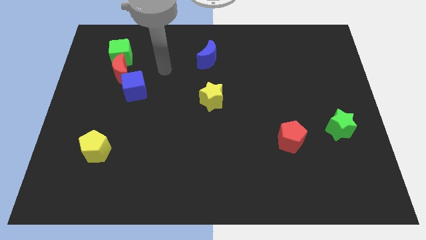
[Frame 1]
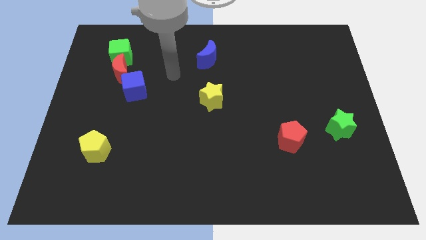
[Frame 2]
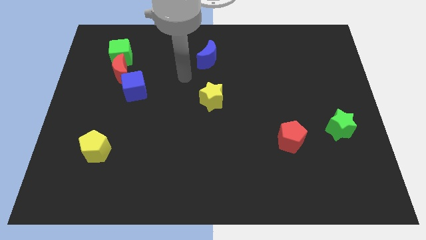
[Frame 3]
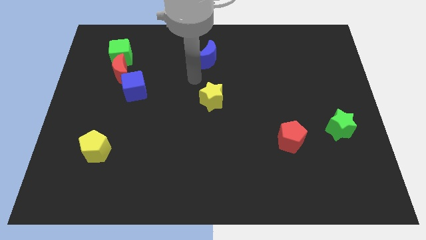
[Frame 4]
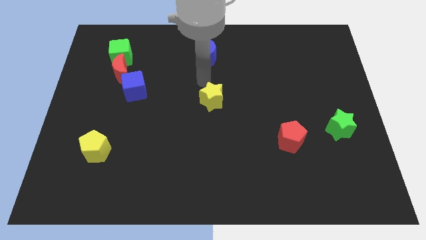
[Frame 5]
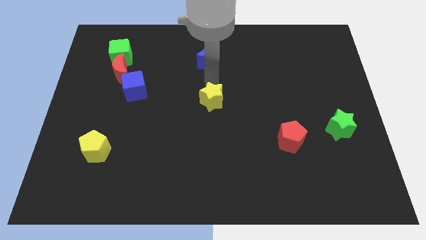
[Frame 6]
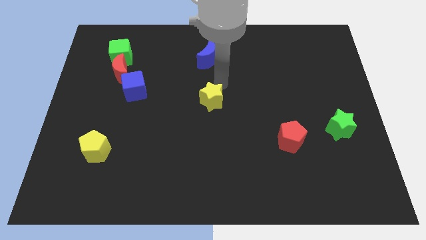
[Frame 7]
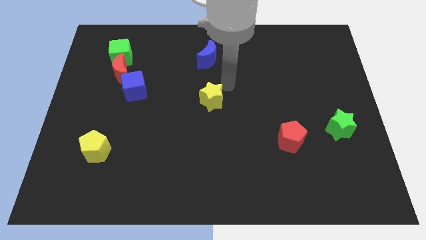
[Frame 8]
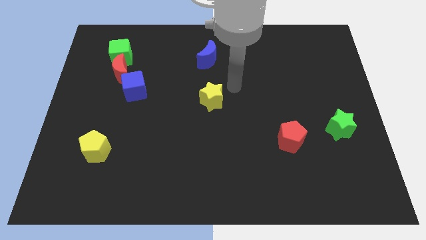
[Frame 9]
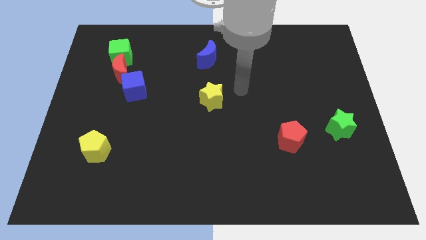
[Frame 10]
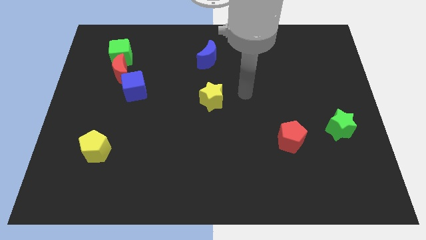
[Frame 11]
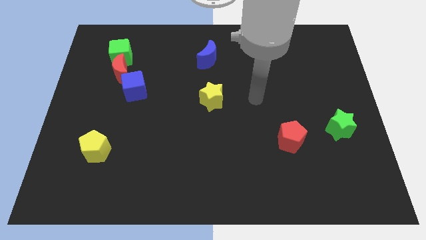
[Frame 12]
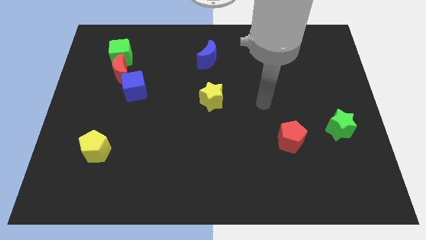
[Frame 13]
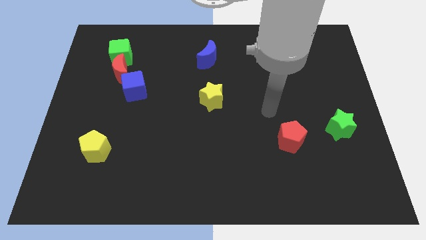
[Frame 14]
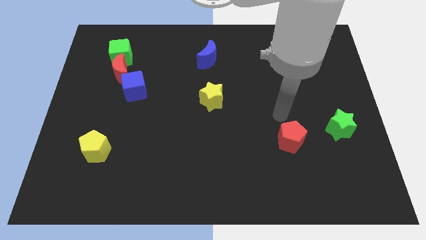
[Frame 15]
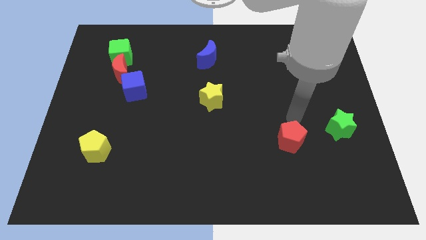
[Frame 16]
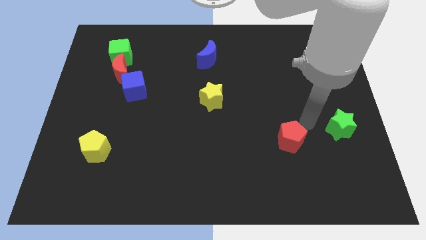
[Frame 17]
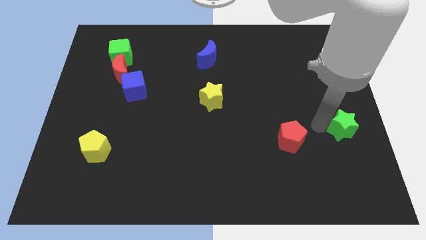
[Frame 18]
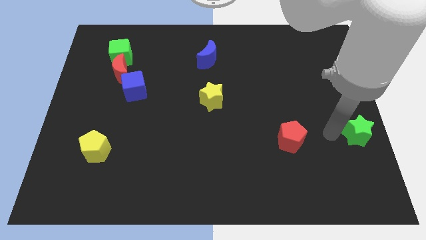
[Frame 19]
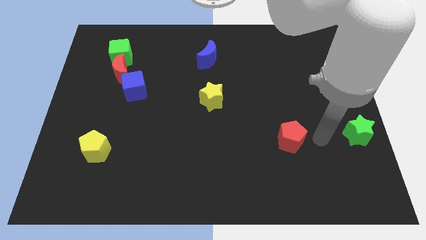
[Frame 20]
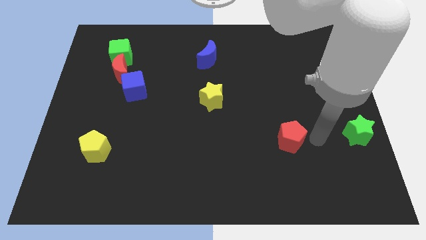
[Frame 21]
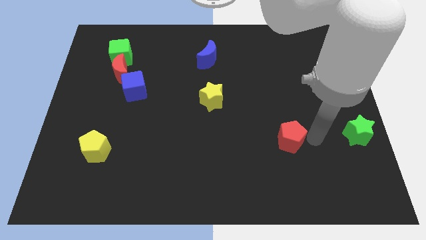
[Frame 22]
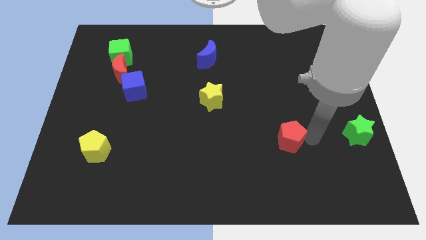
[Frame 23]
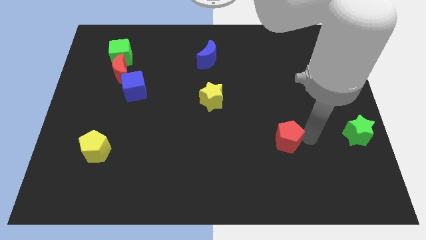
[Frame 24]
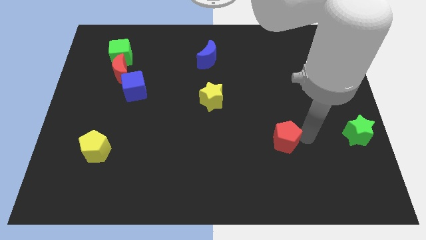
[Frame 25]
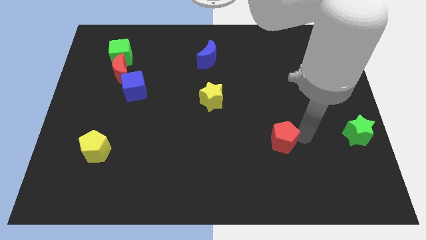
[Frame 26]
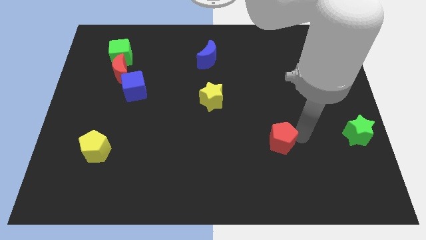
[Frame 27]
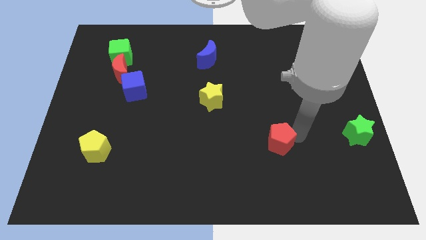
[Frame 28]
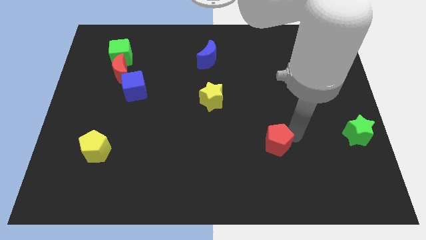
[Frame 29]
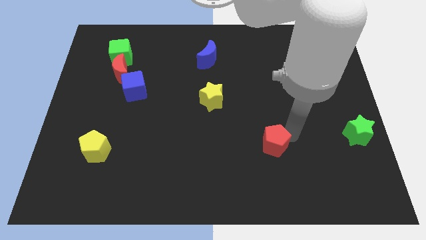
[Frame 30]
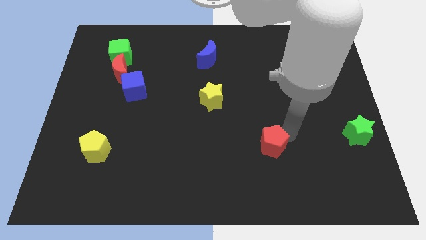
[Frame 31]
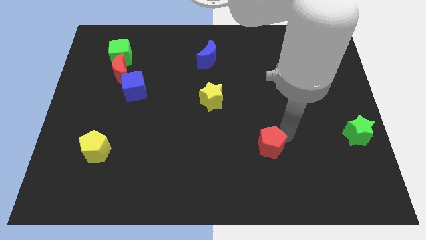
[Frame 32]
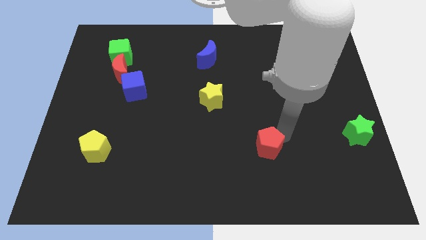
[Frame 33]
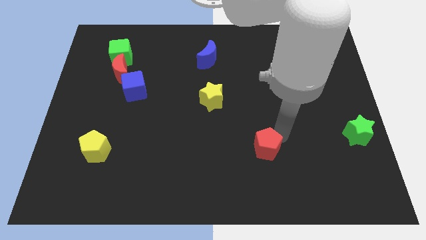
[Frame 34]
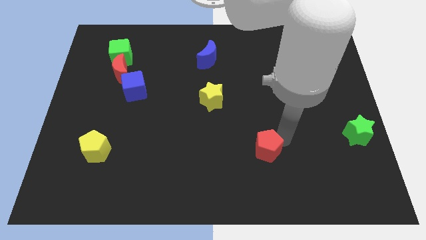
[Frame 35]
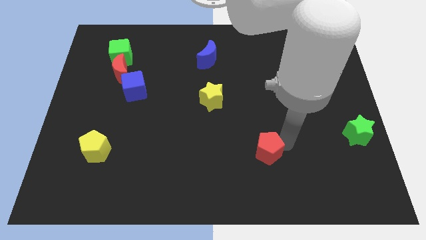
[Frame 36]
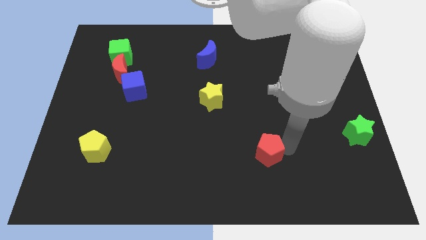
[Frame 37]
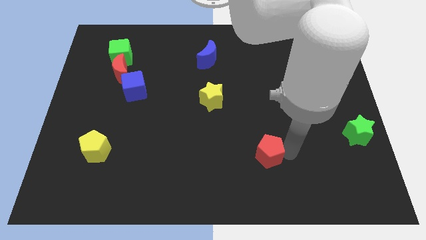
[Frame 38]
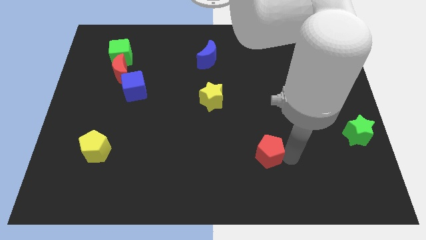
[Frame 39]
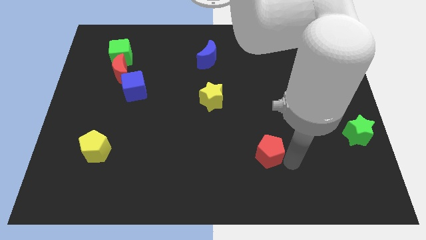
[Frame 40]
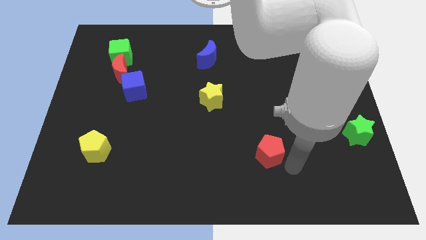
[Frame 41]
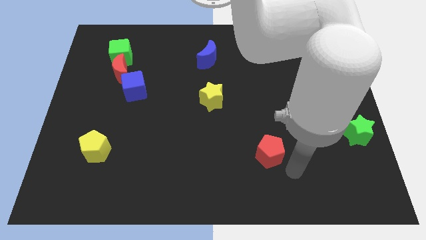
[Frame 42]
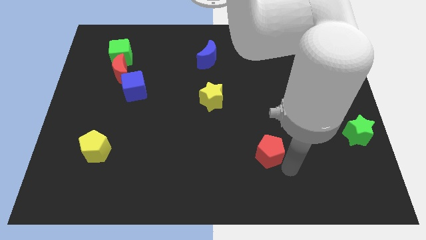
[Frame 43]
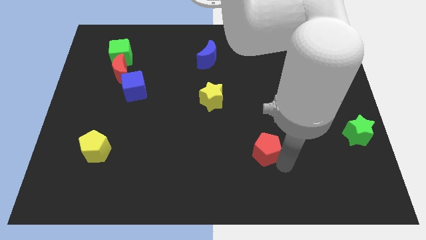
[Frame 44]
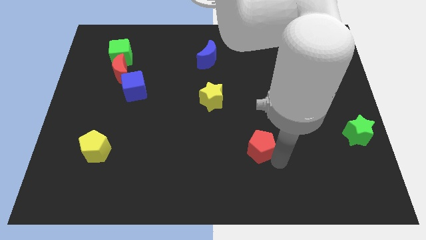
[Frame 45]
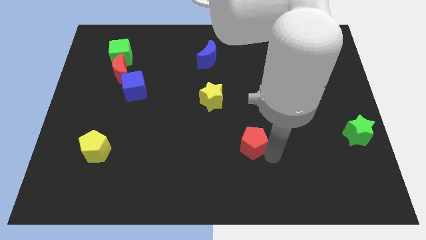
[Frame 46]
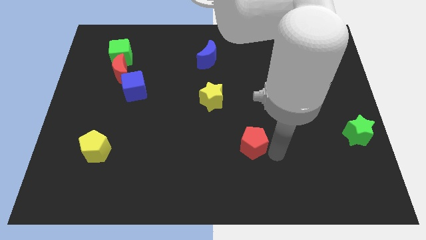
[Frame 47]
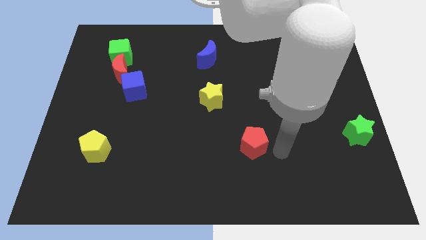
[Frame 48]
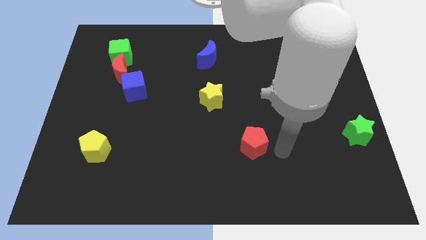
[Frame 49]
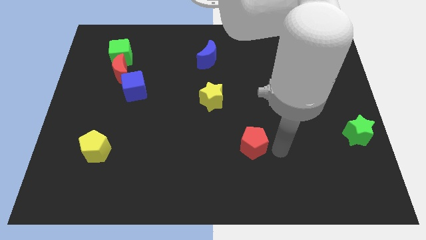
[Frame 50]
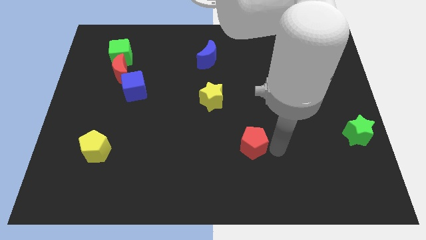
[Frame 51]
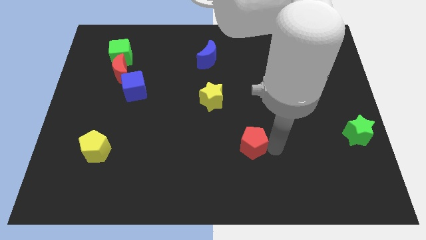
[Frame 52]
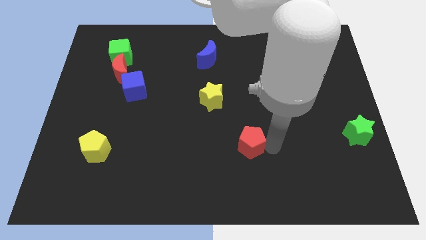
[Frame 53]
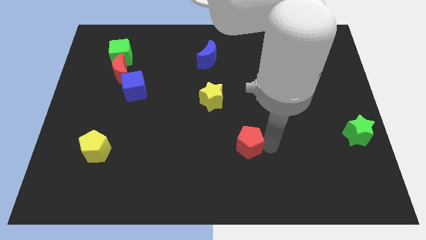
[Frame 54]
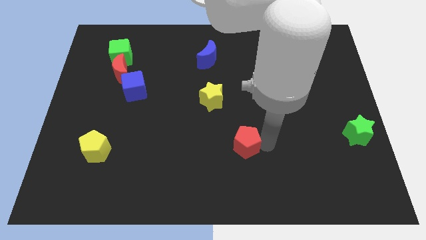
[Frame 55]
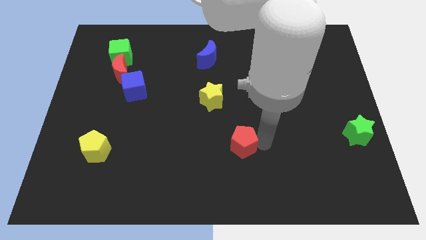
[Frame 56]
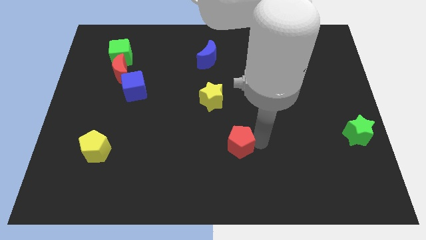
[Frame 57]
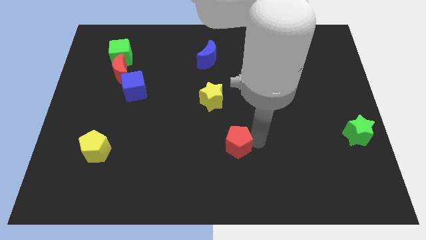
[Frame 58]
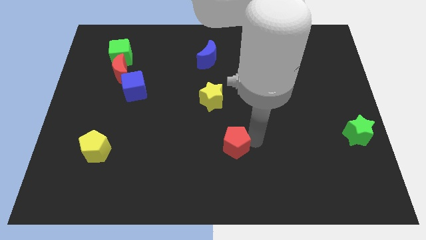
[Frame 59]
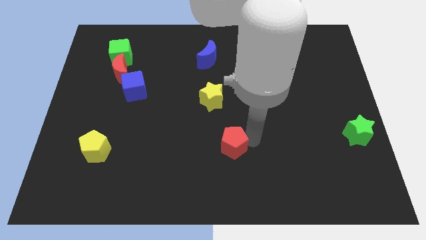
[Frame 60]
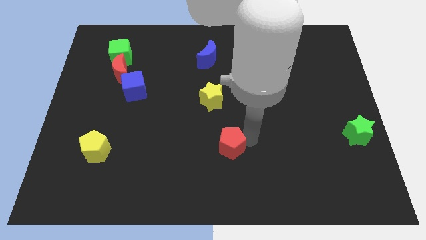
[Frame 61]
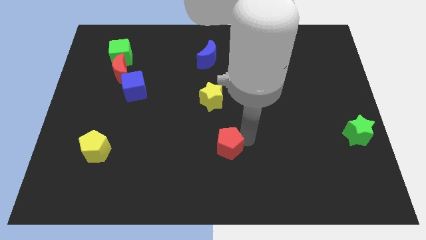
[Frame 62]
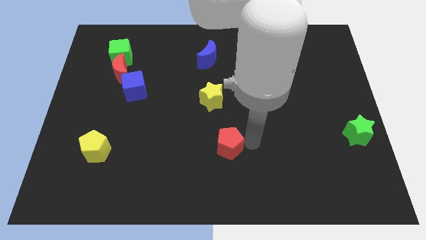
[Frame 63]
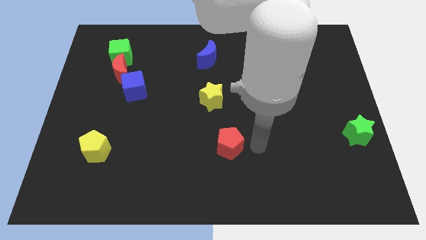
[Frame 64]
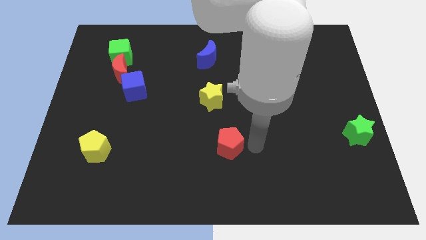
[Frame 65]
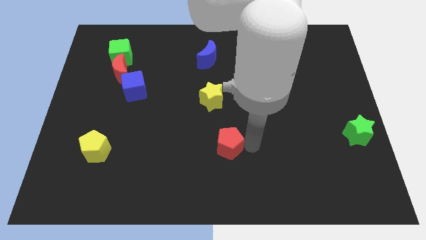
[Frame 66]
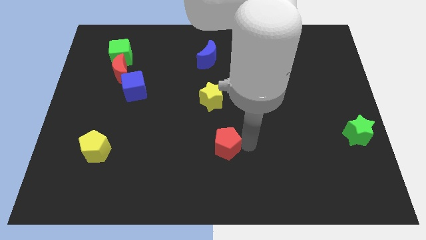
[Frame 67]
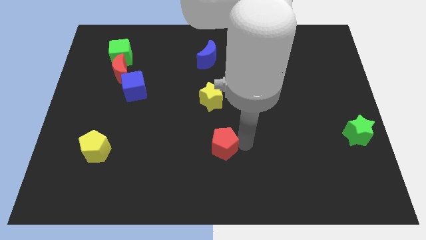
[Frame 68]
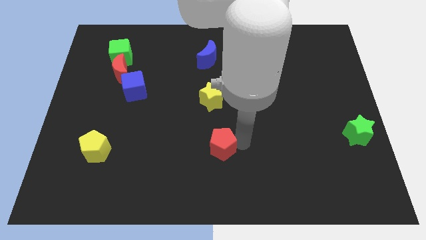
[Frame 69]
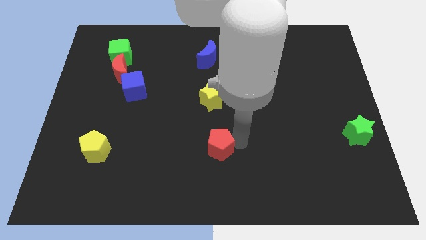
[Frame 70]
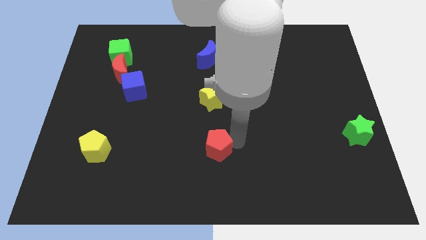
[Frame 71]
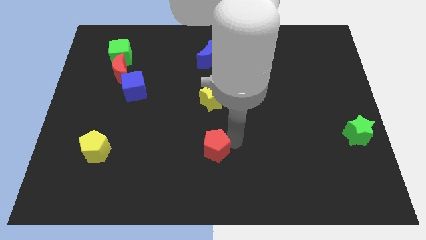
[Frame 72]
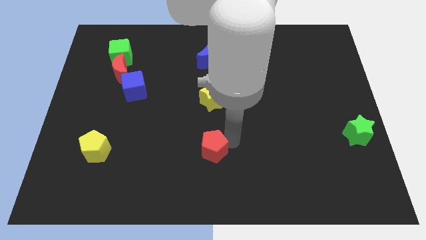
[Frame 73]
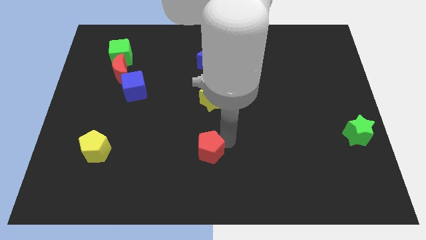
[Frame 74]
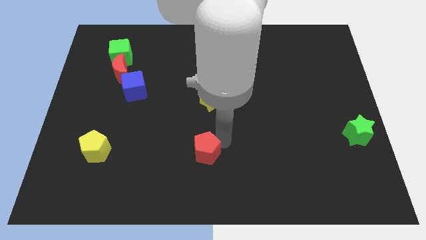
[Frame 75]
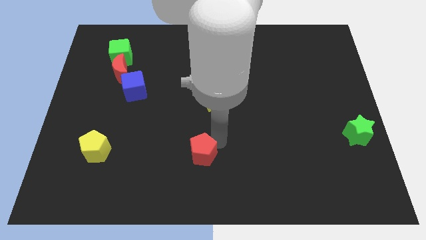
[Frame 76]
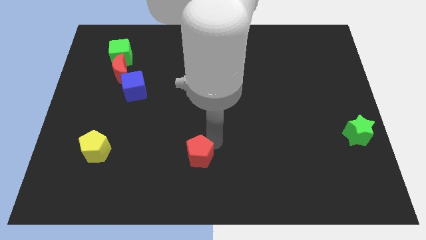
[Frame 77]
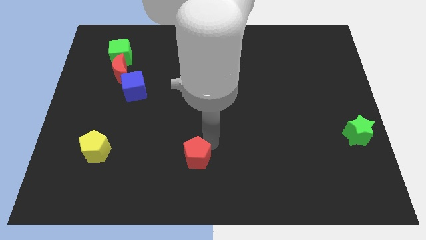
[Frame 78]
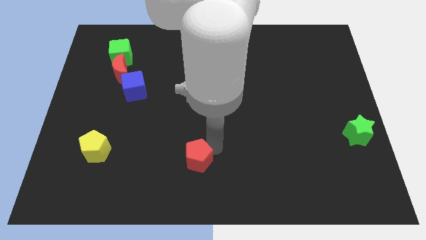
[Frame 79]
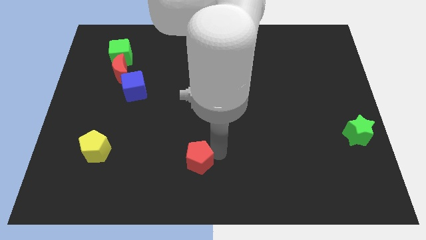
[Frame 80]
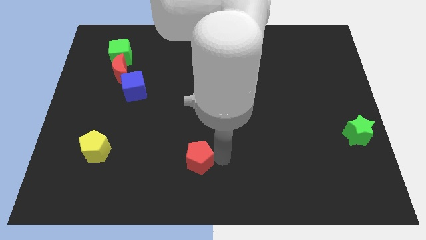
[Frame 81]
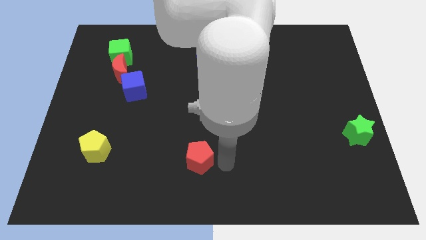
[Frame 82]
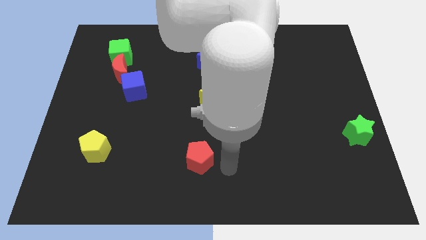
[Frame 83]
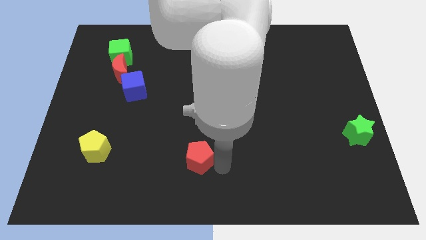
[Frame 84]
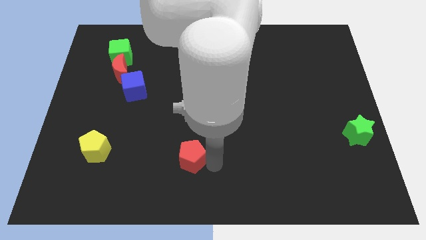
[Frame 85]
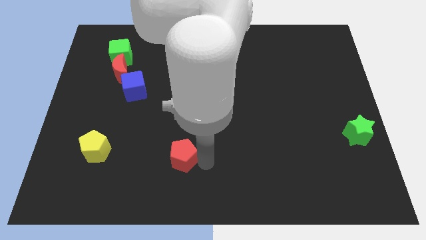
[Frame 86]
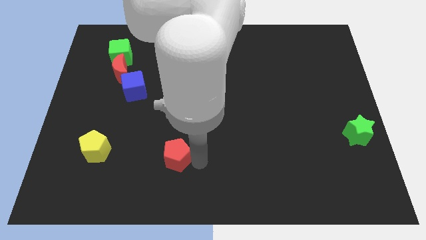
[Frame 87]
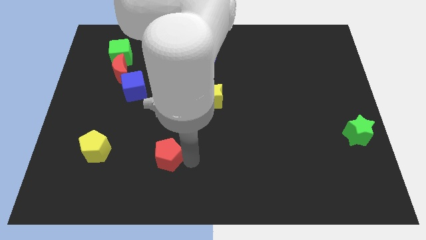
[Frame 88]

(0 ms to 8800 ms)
slide the red pentagon to the right side of the yellow pentagon
